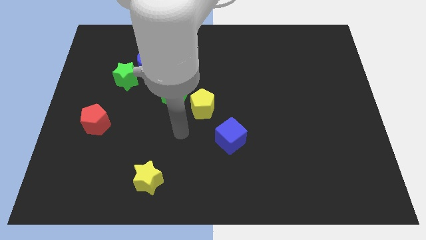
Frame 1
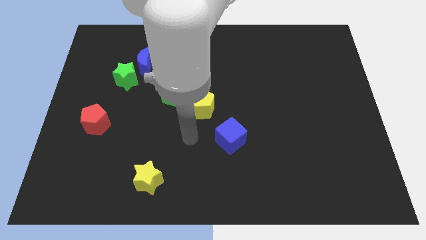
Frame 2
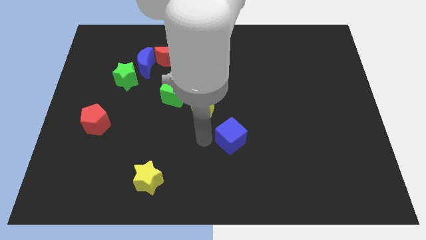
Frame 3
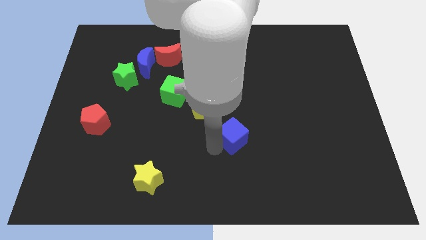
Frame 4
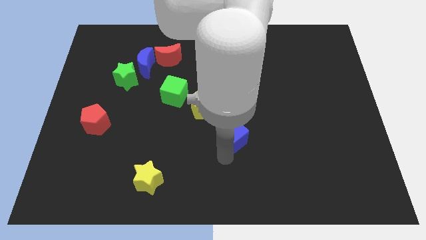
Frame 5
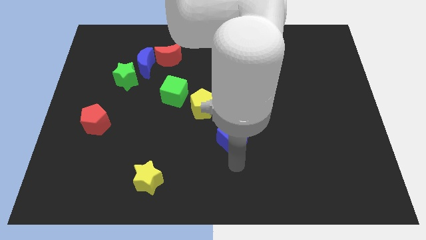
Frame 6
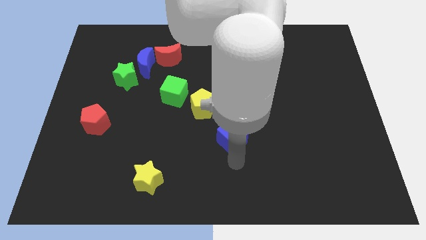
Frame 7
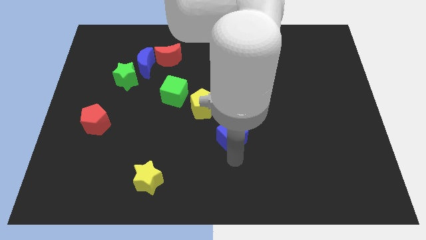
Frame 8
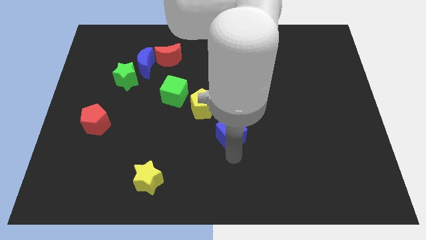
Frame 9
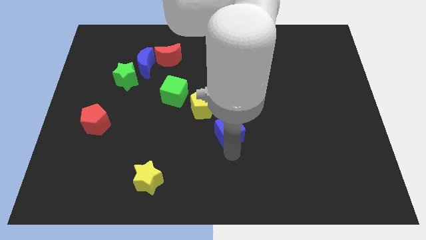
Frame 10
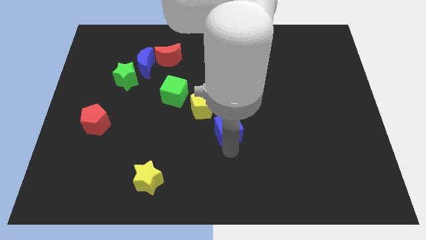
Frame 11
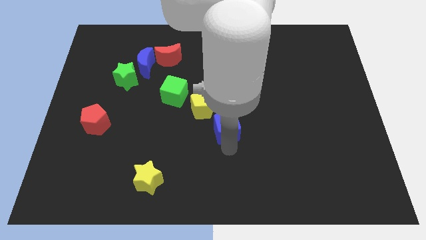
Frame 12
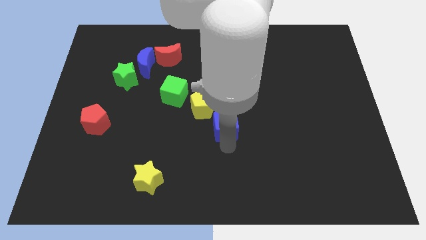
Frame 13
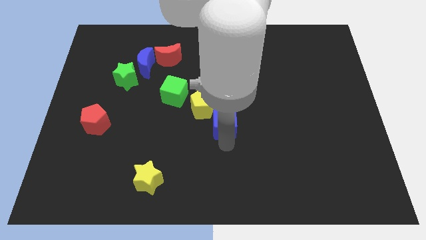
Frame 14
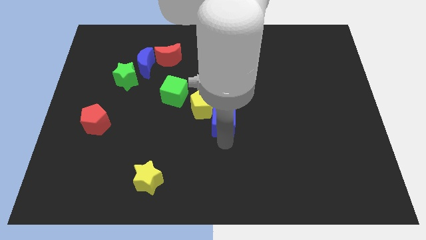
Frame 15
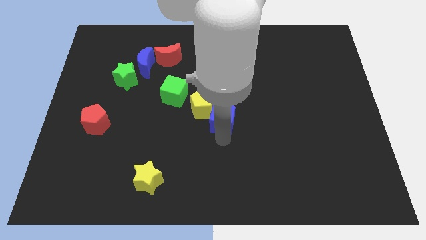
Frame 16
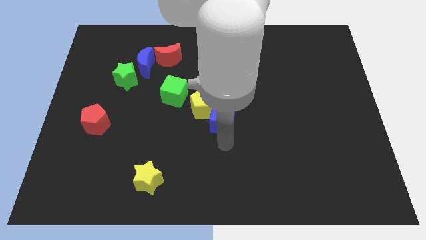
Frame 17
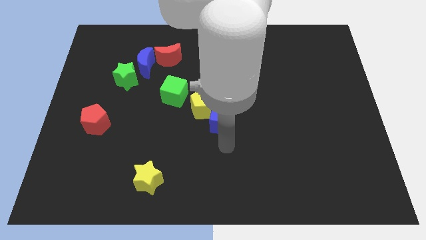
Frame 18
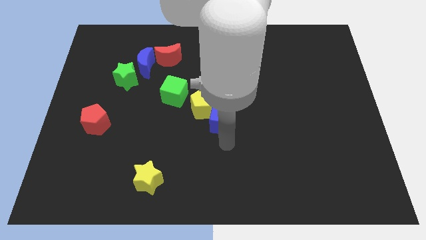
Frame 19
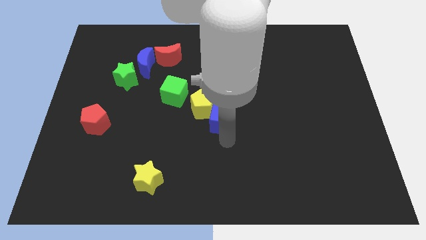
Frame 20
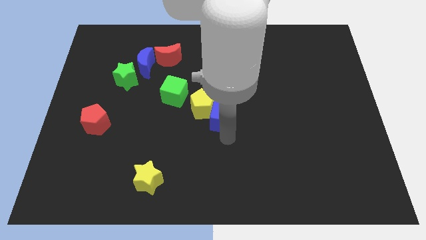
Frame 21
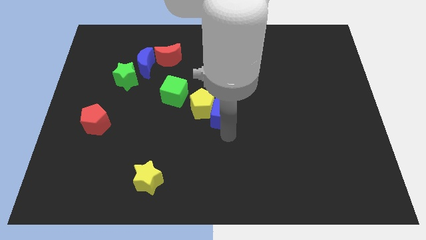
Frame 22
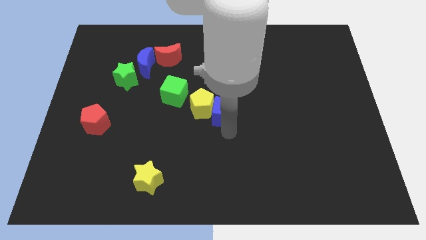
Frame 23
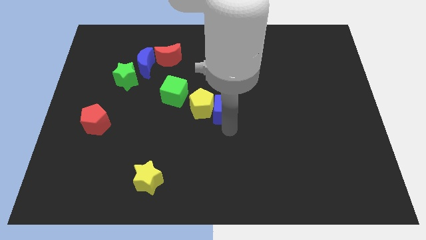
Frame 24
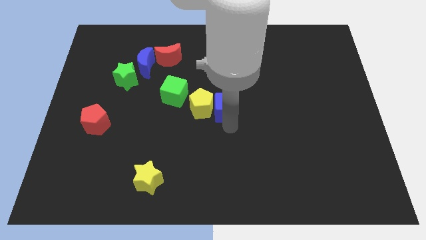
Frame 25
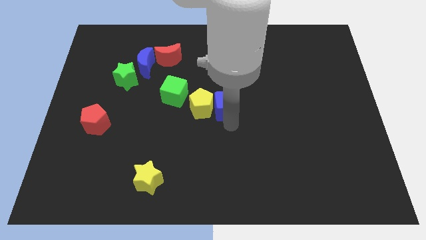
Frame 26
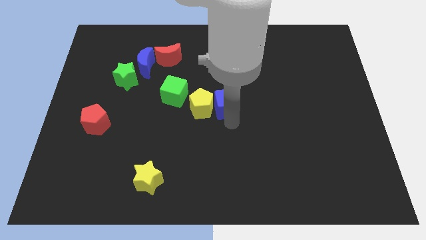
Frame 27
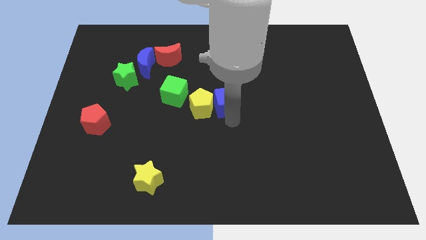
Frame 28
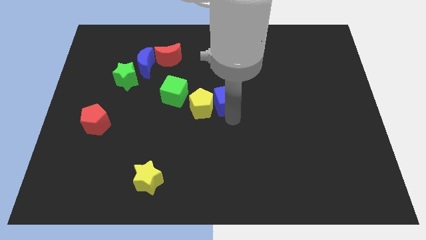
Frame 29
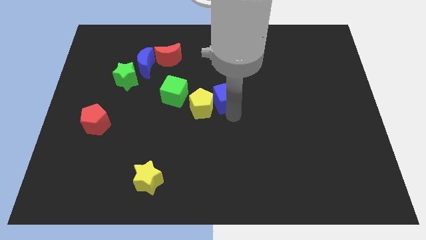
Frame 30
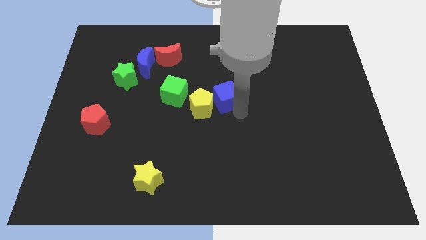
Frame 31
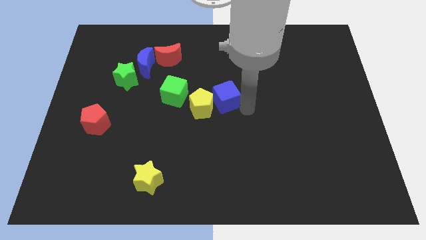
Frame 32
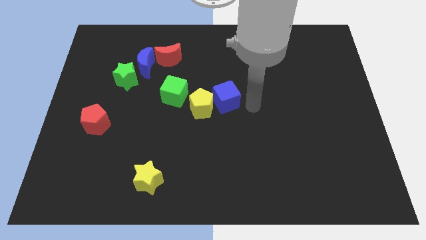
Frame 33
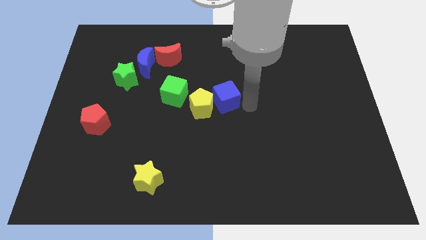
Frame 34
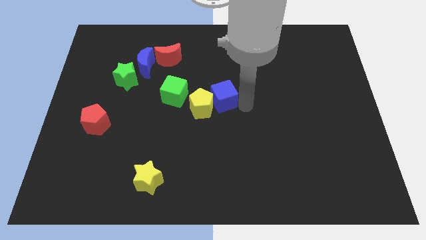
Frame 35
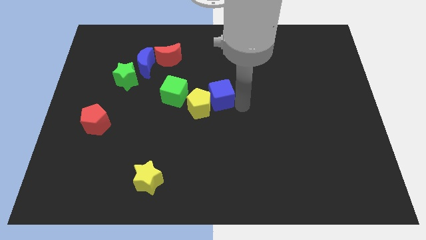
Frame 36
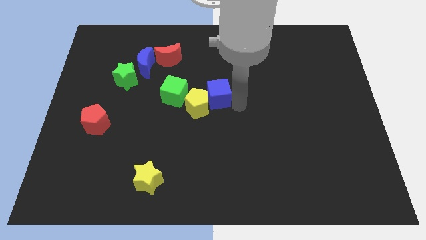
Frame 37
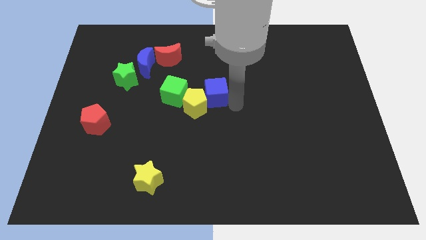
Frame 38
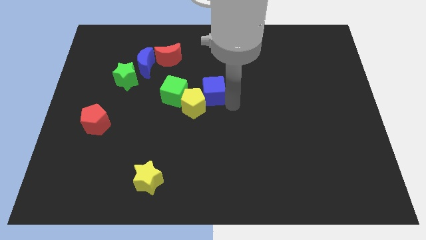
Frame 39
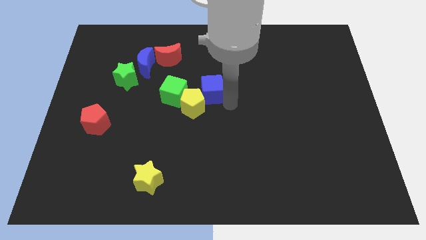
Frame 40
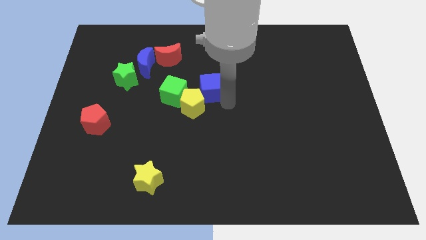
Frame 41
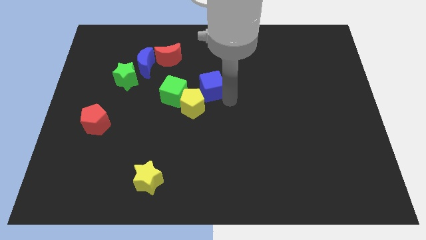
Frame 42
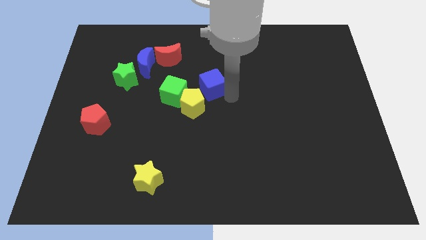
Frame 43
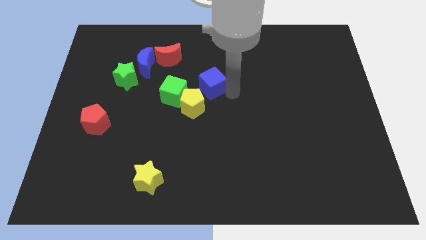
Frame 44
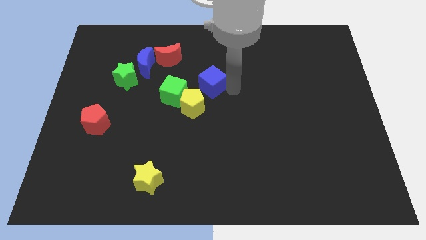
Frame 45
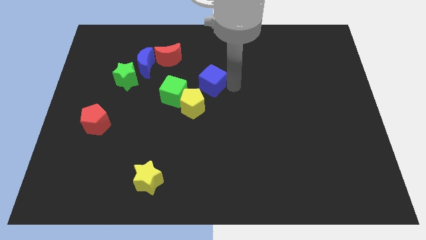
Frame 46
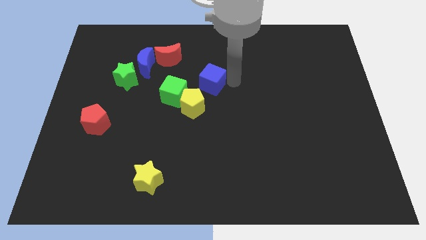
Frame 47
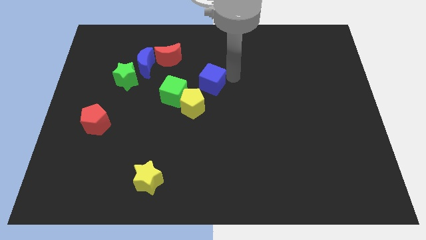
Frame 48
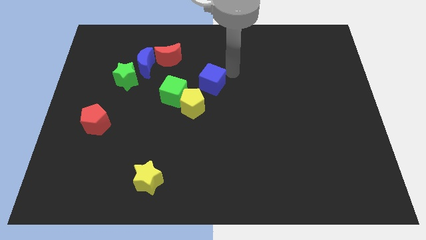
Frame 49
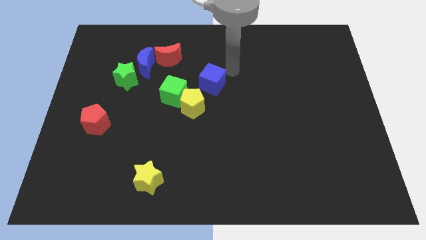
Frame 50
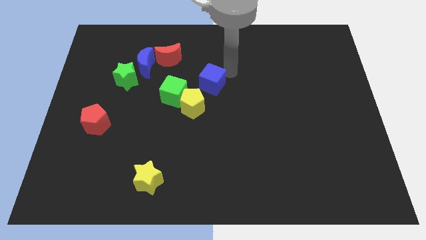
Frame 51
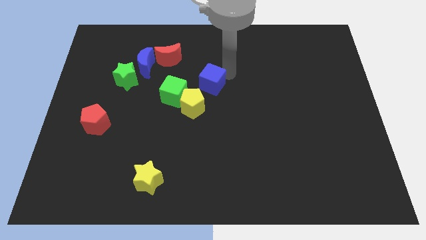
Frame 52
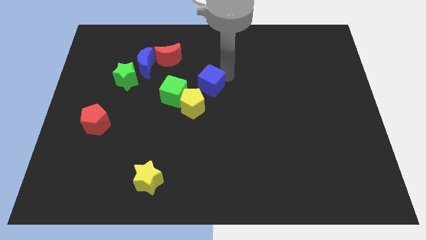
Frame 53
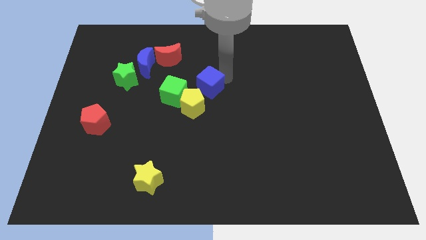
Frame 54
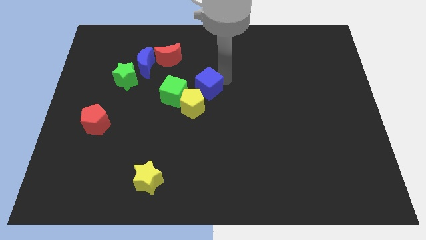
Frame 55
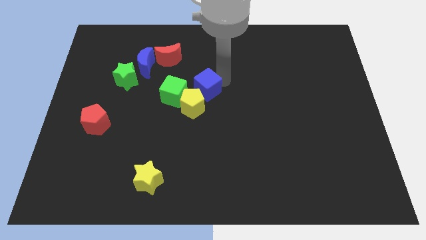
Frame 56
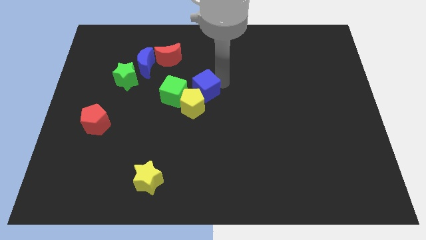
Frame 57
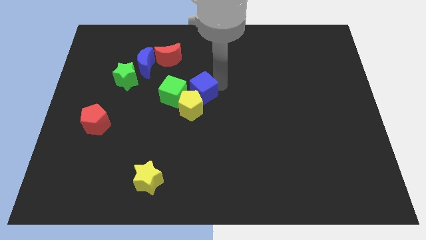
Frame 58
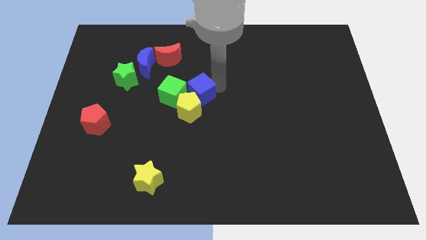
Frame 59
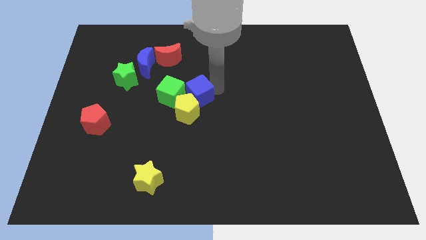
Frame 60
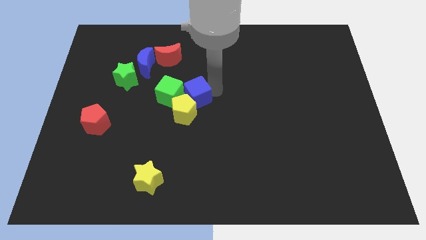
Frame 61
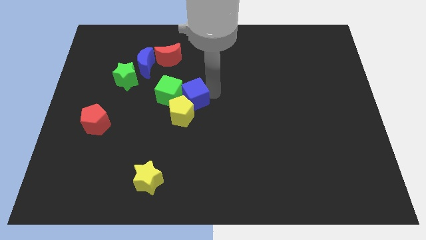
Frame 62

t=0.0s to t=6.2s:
push the blue cube close to the green cube

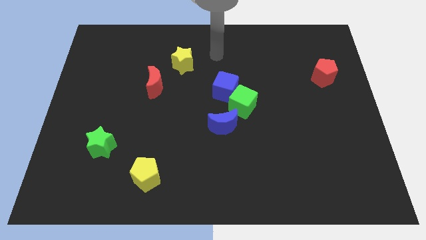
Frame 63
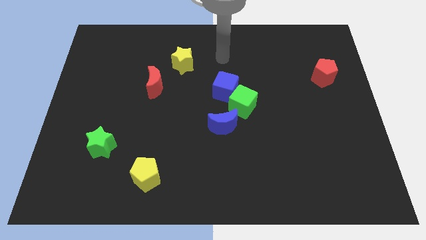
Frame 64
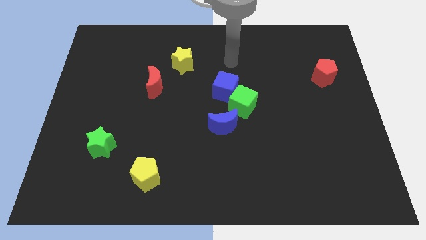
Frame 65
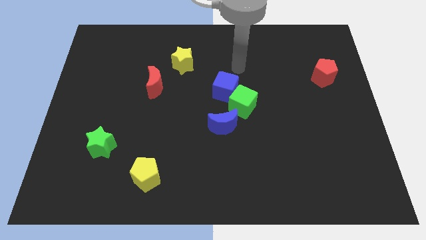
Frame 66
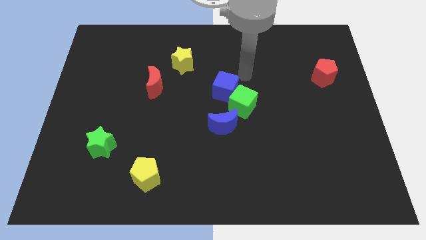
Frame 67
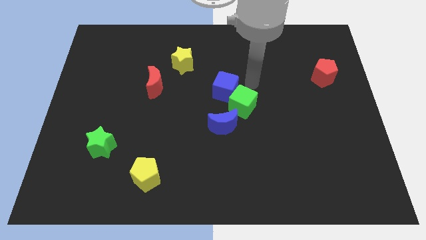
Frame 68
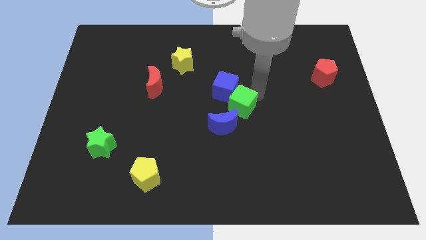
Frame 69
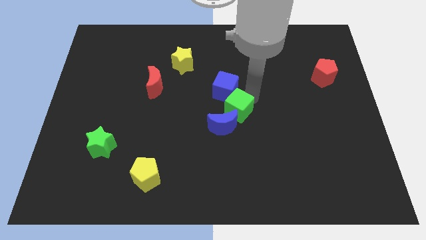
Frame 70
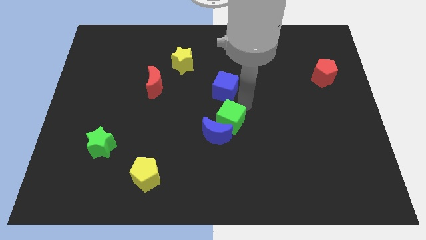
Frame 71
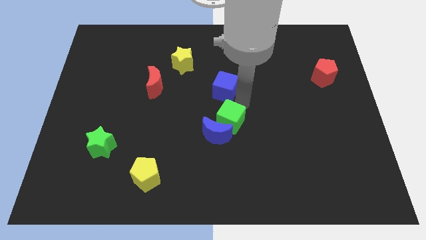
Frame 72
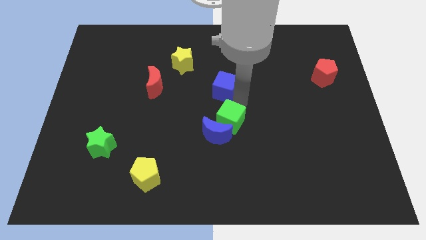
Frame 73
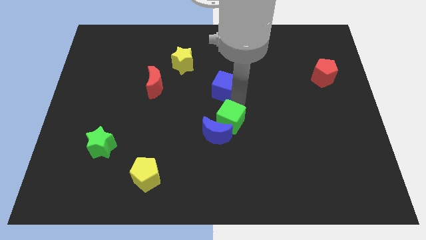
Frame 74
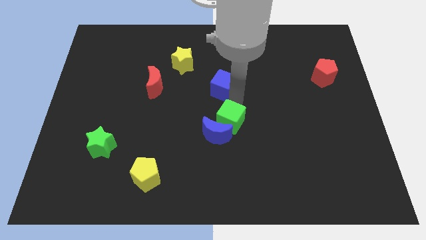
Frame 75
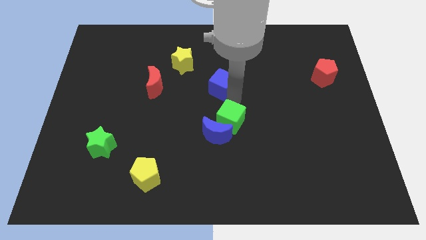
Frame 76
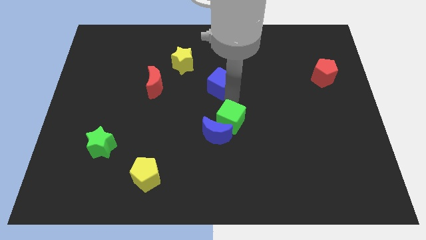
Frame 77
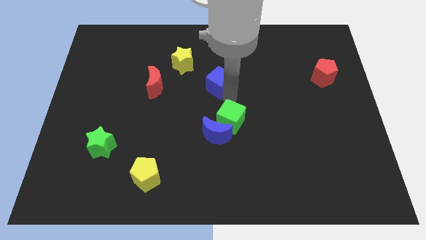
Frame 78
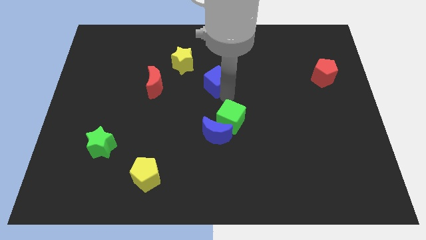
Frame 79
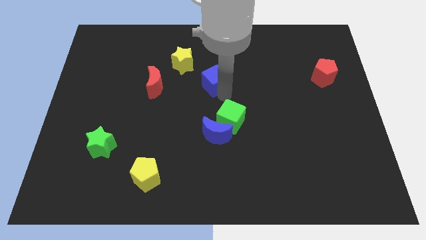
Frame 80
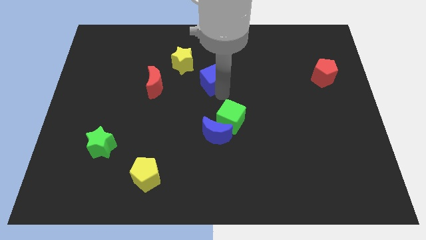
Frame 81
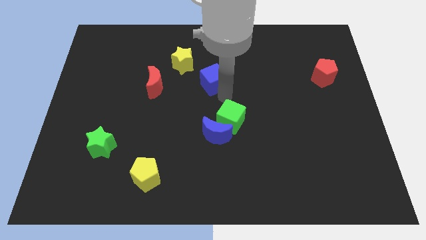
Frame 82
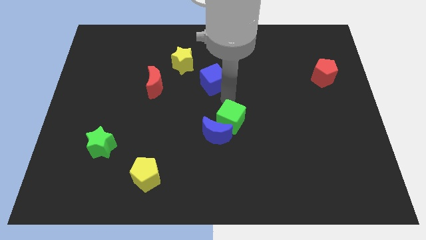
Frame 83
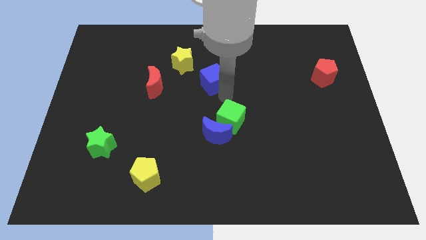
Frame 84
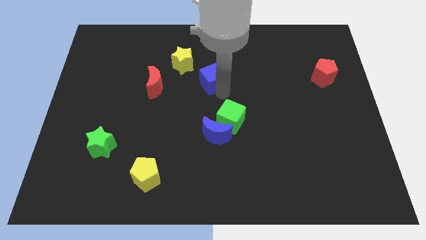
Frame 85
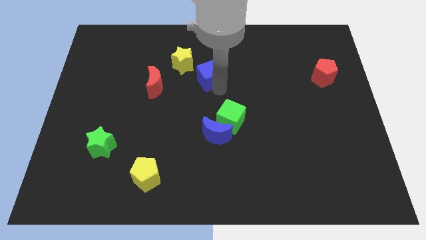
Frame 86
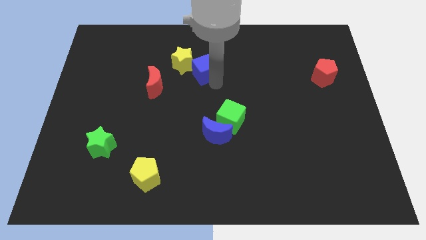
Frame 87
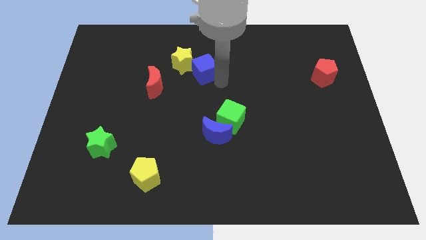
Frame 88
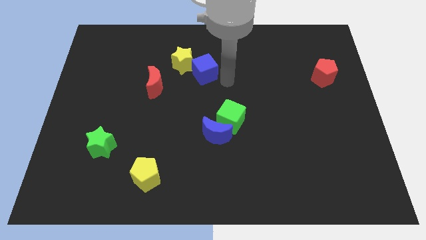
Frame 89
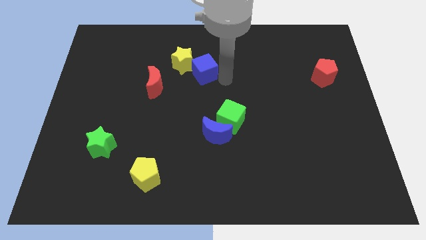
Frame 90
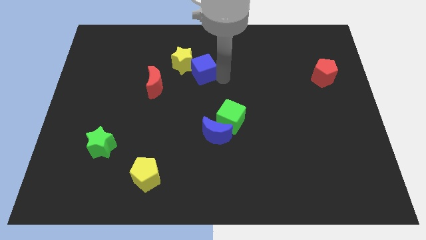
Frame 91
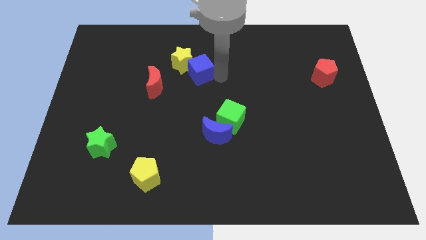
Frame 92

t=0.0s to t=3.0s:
put the blue cube towards the yellow star
